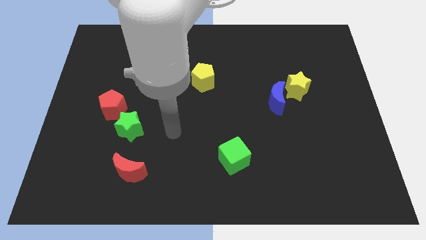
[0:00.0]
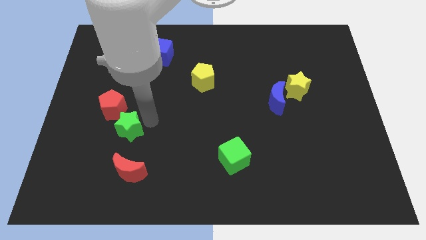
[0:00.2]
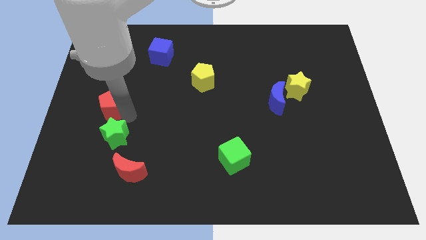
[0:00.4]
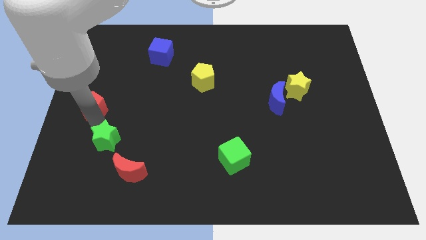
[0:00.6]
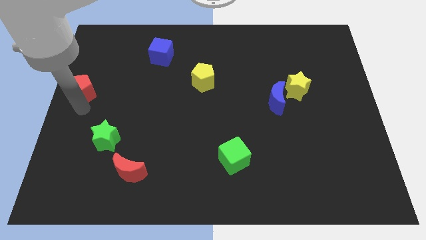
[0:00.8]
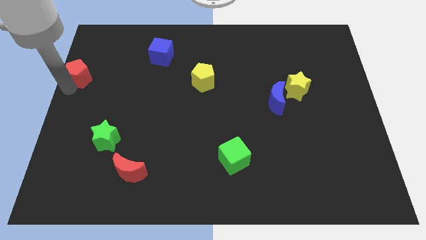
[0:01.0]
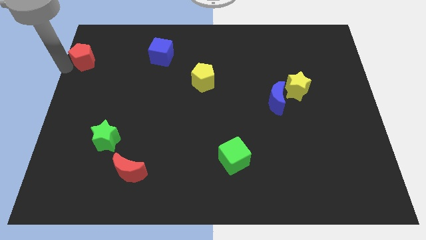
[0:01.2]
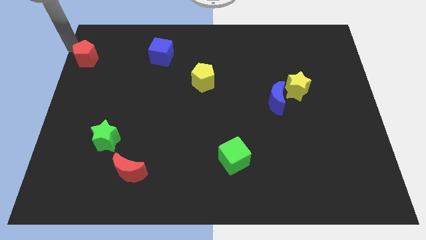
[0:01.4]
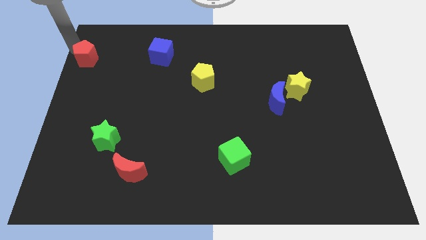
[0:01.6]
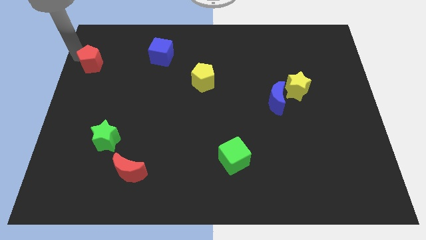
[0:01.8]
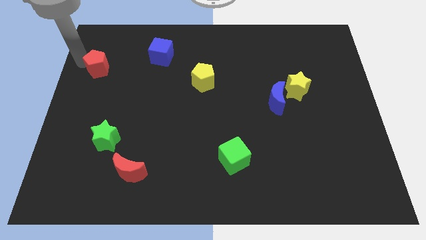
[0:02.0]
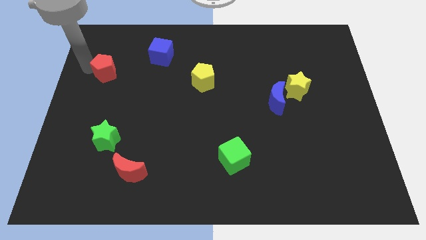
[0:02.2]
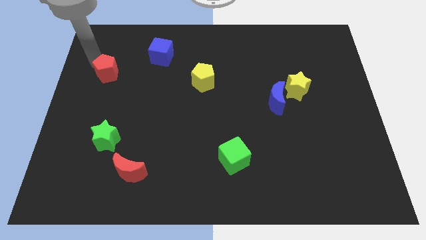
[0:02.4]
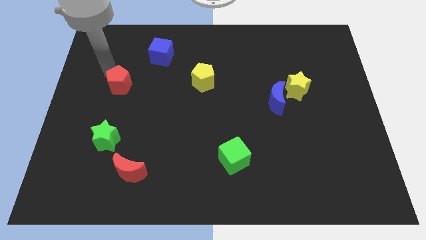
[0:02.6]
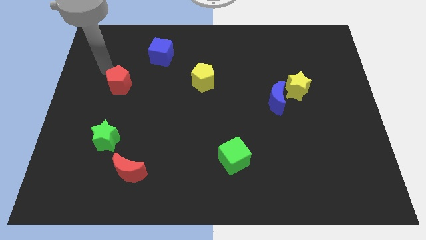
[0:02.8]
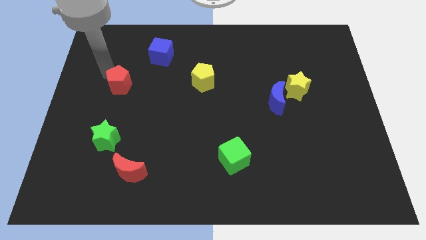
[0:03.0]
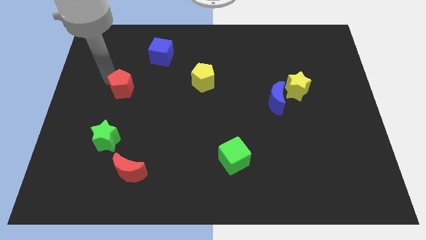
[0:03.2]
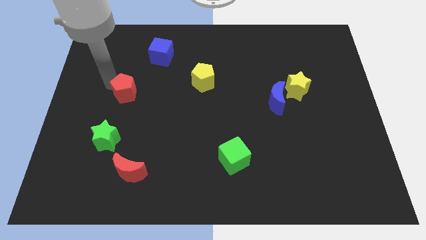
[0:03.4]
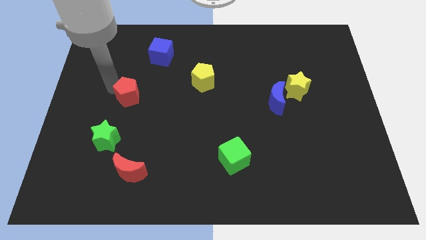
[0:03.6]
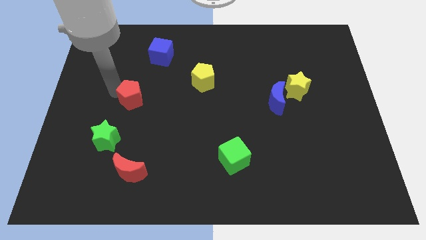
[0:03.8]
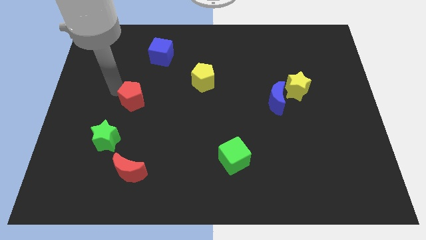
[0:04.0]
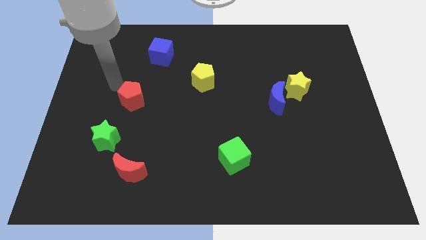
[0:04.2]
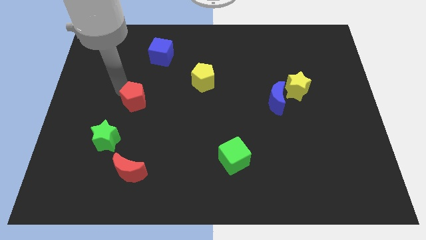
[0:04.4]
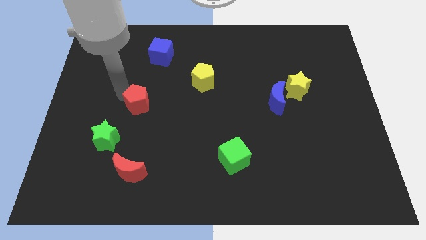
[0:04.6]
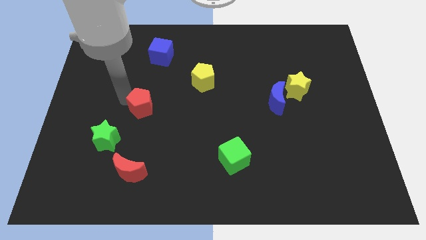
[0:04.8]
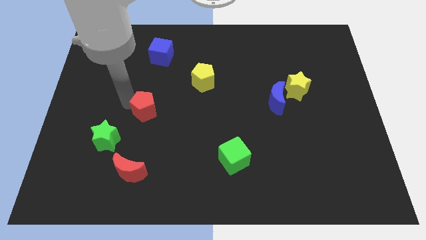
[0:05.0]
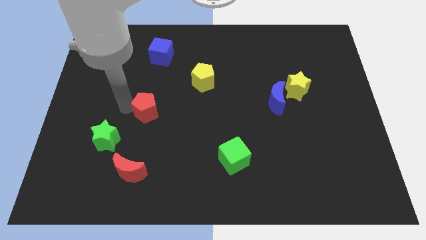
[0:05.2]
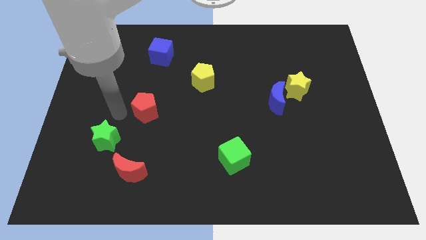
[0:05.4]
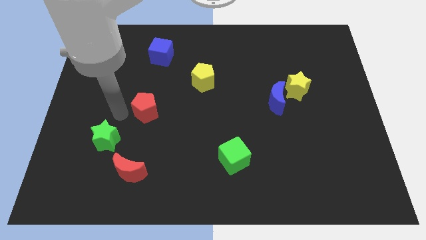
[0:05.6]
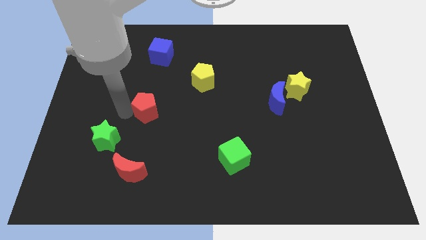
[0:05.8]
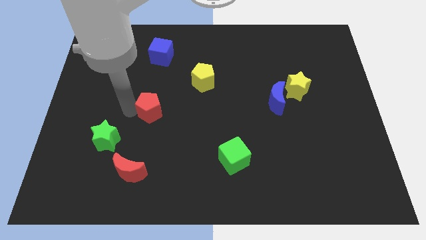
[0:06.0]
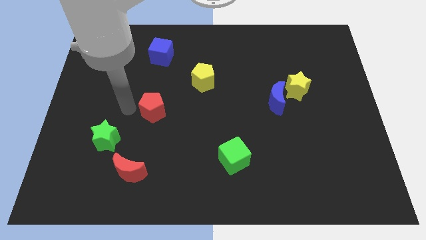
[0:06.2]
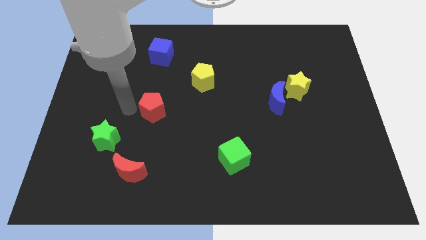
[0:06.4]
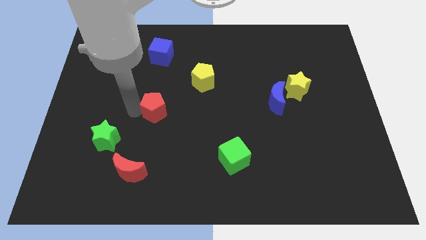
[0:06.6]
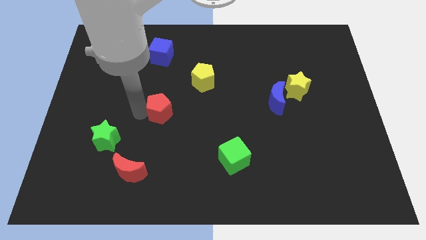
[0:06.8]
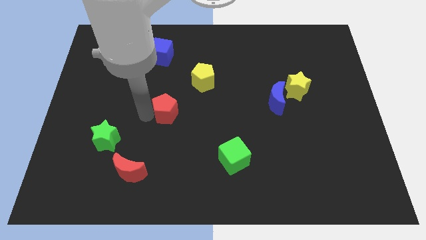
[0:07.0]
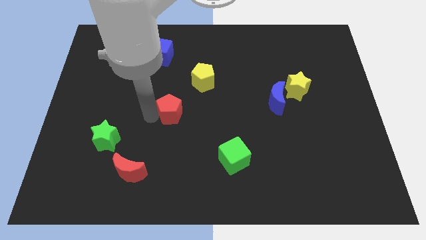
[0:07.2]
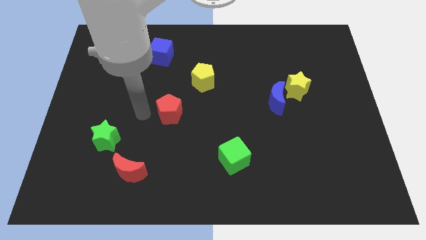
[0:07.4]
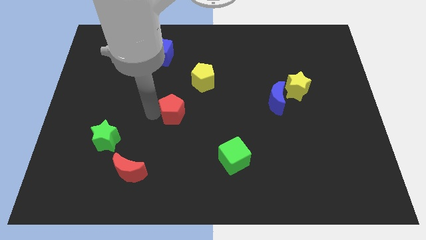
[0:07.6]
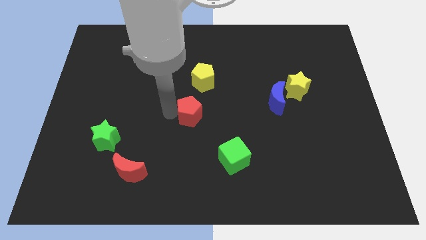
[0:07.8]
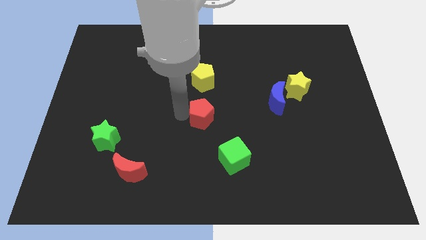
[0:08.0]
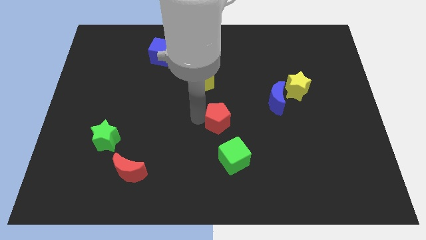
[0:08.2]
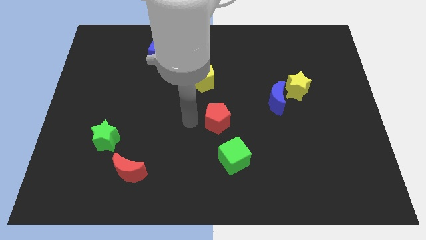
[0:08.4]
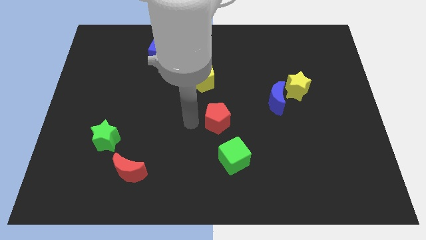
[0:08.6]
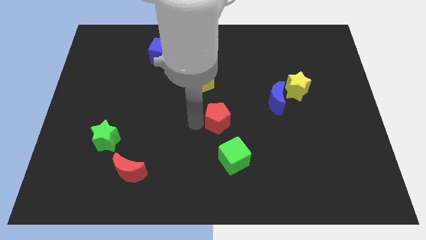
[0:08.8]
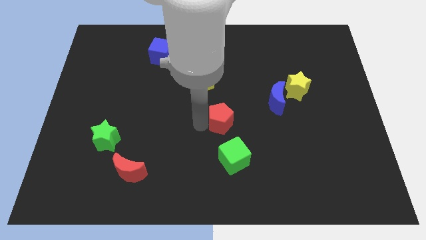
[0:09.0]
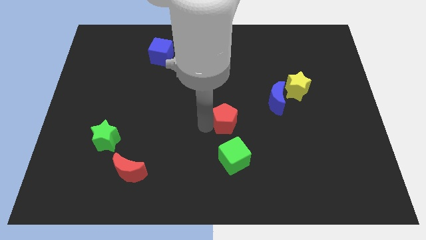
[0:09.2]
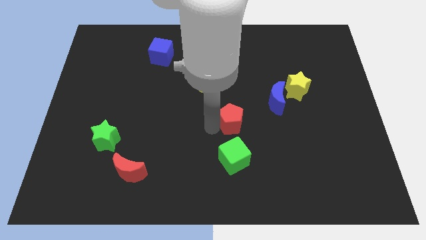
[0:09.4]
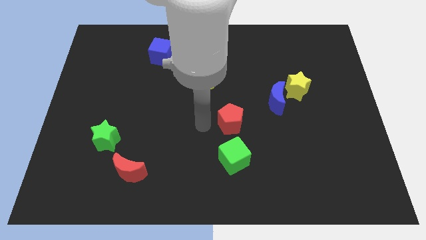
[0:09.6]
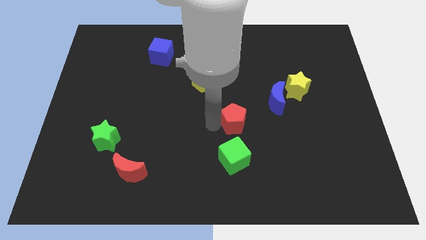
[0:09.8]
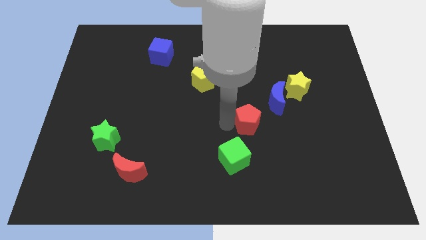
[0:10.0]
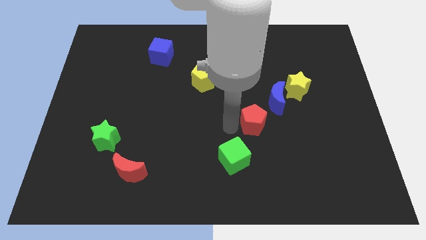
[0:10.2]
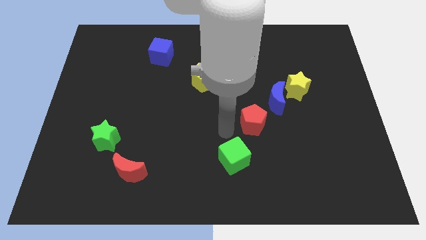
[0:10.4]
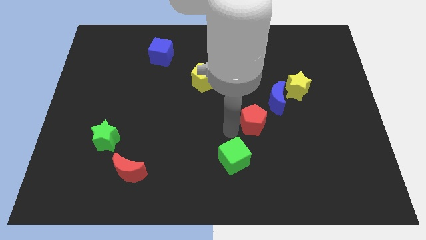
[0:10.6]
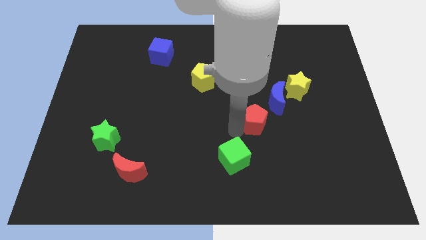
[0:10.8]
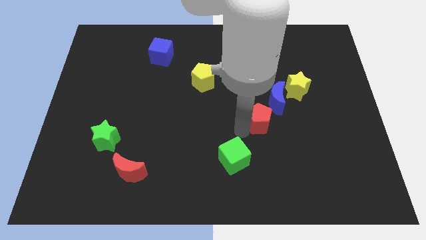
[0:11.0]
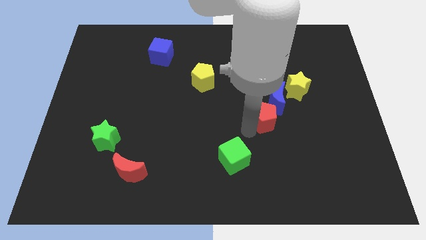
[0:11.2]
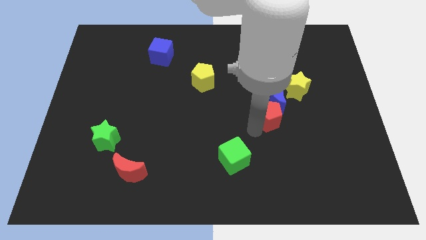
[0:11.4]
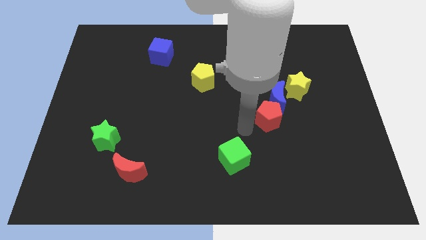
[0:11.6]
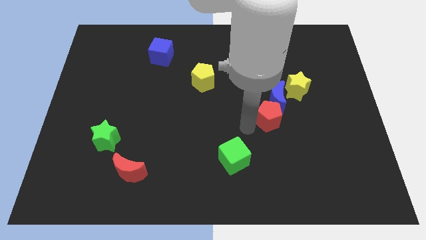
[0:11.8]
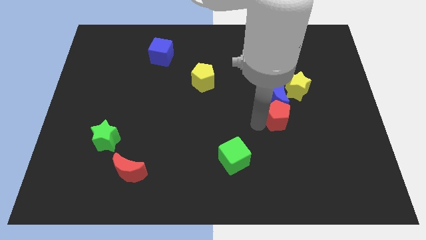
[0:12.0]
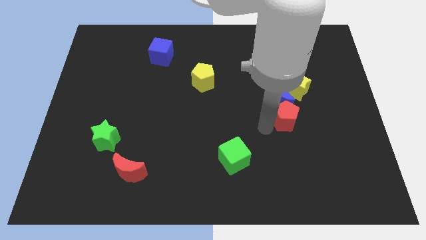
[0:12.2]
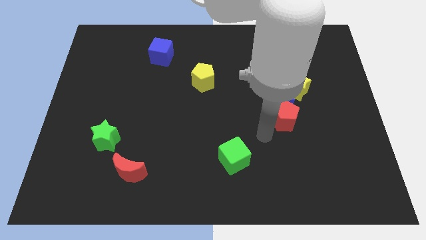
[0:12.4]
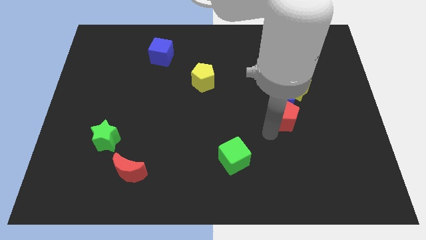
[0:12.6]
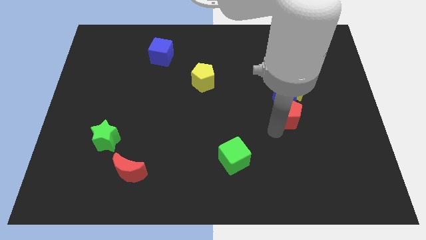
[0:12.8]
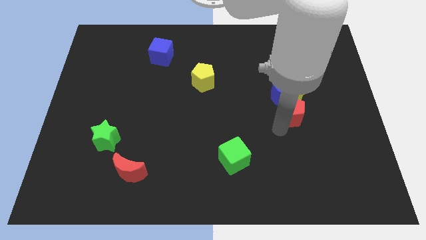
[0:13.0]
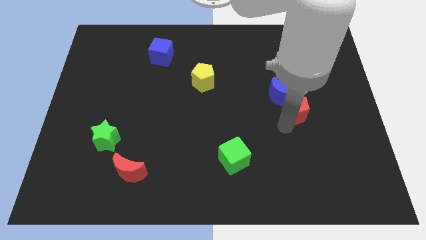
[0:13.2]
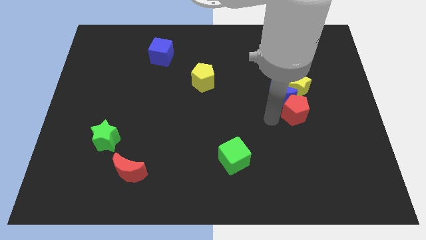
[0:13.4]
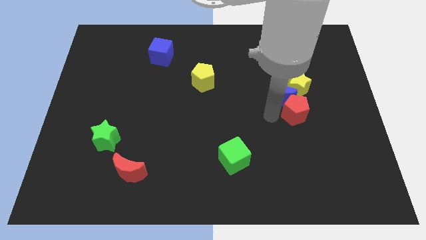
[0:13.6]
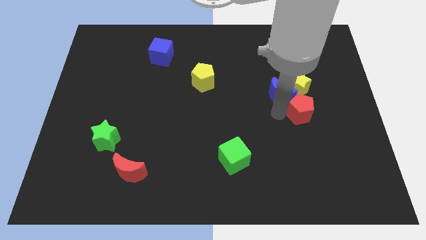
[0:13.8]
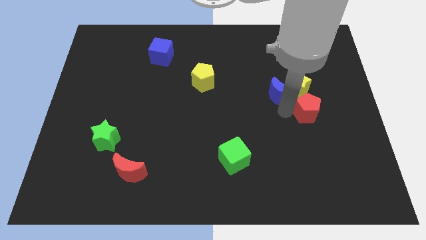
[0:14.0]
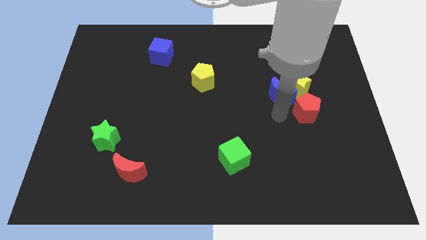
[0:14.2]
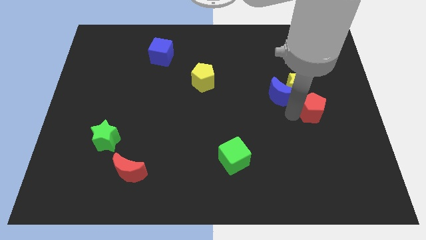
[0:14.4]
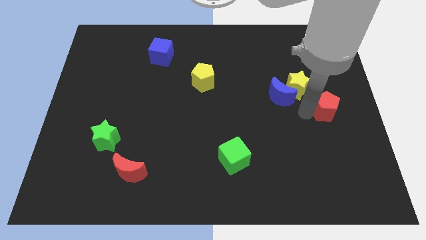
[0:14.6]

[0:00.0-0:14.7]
move the red pentagon to the right side
